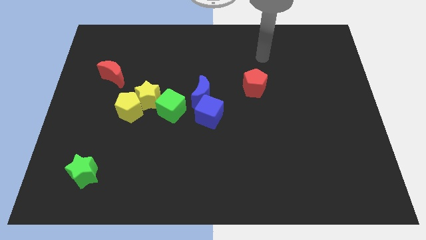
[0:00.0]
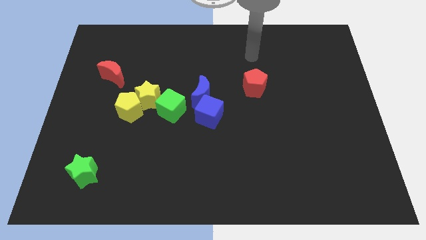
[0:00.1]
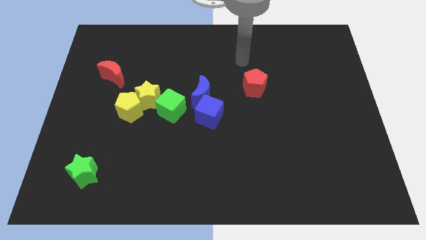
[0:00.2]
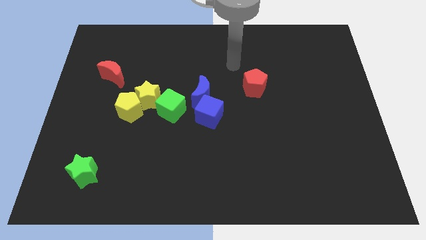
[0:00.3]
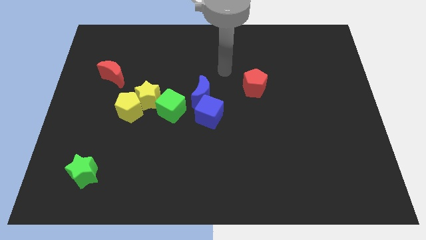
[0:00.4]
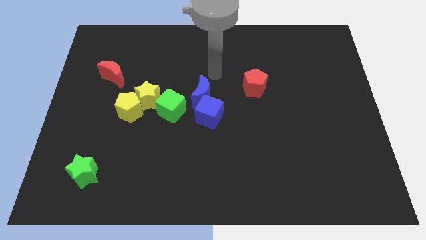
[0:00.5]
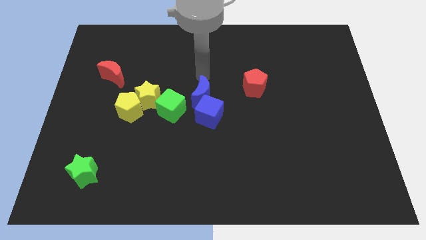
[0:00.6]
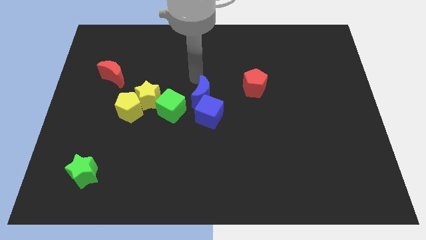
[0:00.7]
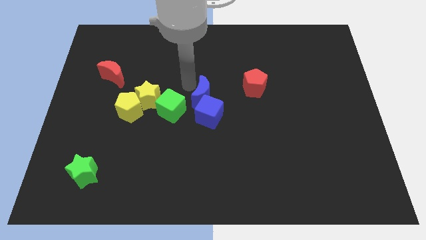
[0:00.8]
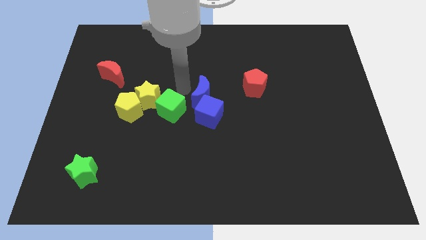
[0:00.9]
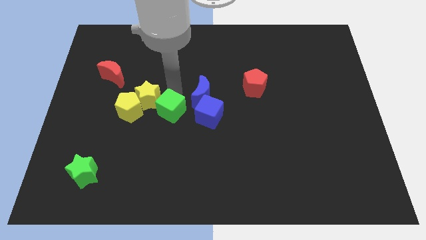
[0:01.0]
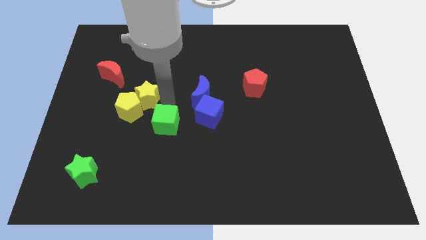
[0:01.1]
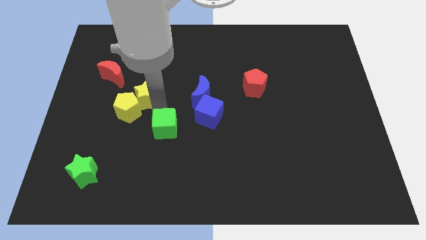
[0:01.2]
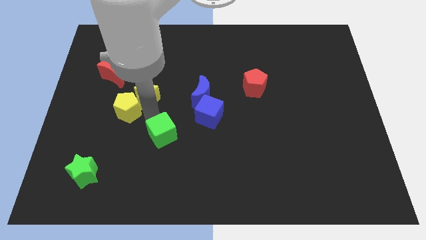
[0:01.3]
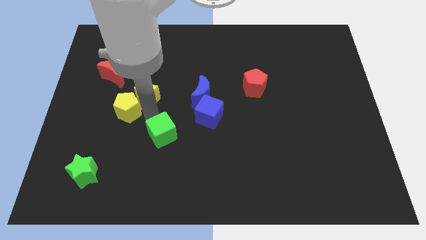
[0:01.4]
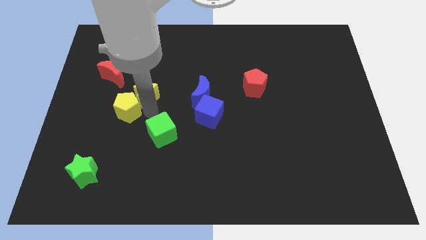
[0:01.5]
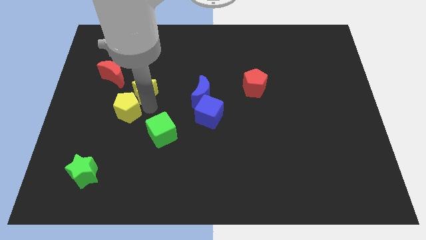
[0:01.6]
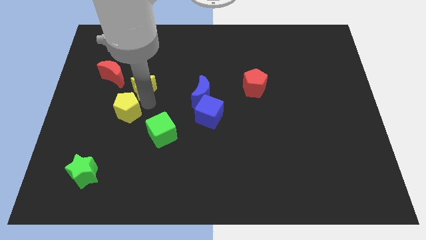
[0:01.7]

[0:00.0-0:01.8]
pull the yellow star apart from the yellow pentagon and green cube

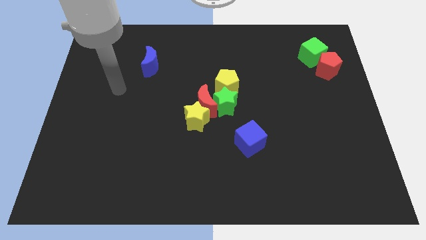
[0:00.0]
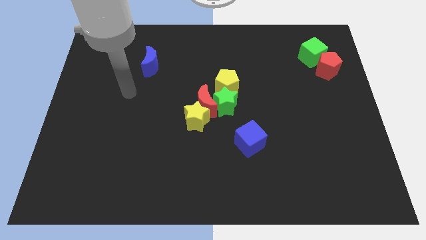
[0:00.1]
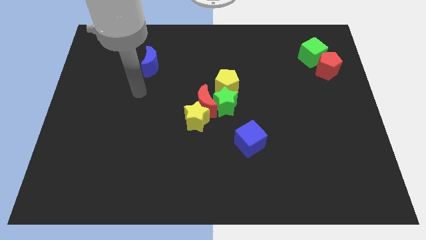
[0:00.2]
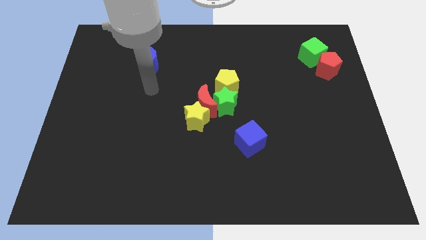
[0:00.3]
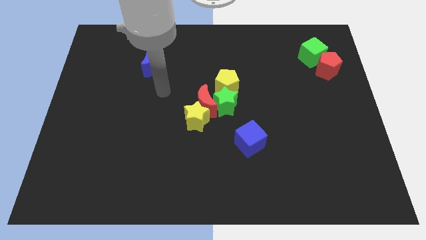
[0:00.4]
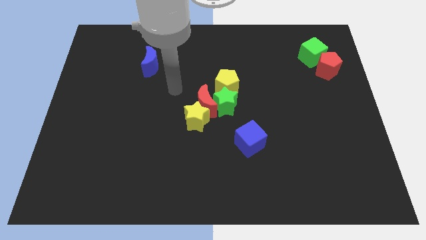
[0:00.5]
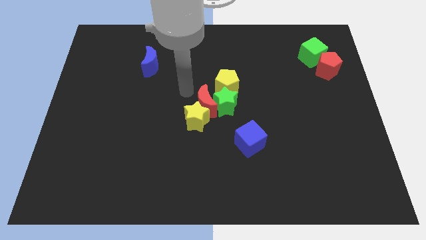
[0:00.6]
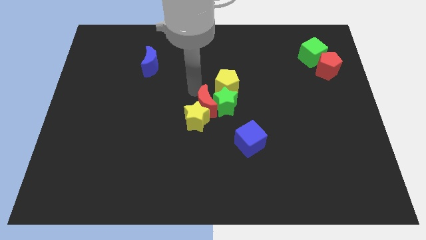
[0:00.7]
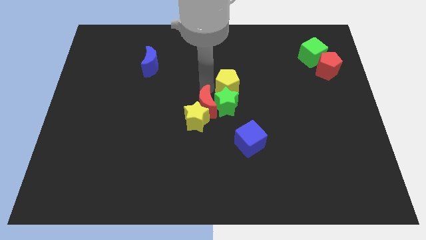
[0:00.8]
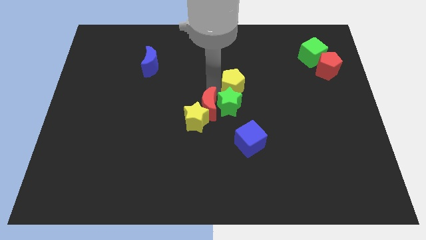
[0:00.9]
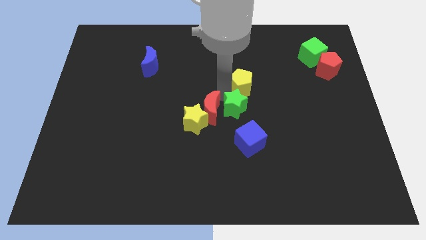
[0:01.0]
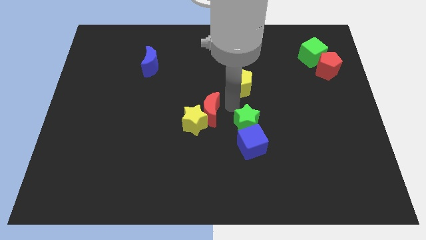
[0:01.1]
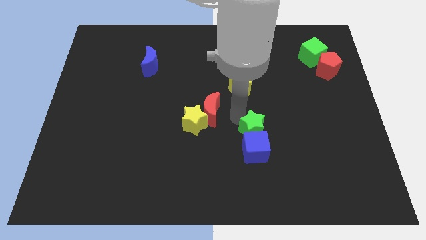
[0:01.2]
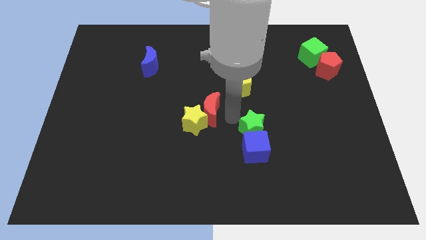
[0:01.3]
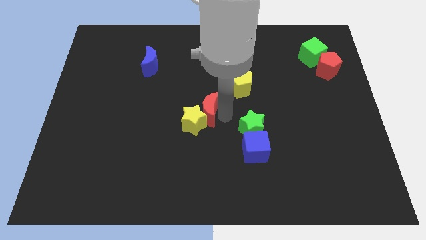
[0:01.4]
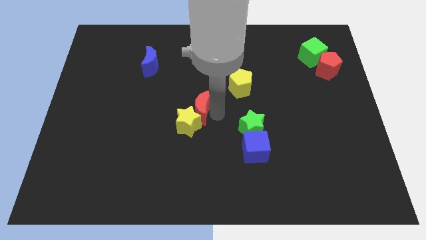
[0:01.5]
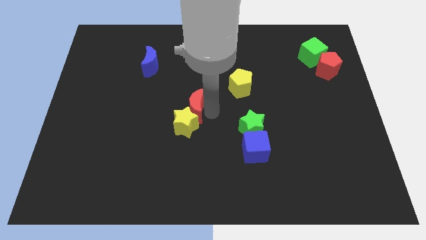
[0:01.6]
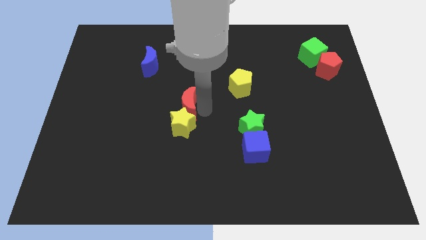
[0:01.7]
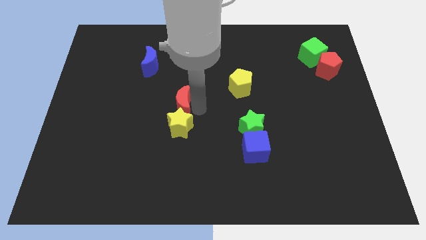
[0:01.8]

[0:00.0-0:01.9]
move the red moon away from the clump

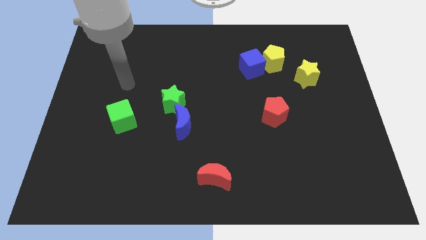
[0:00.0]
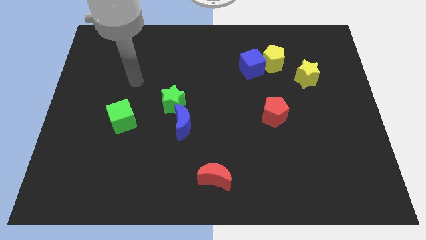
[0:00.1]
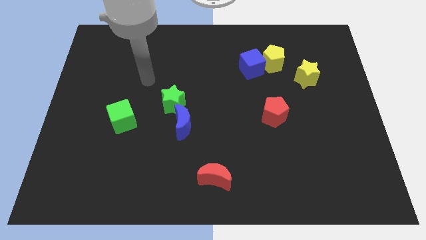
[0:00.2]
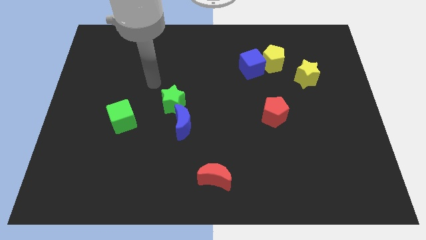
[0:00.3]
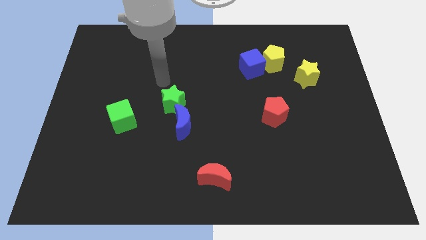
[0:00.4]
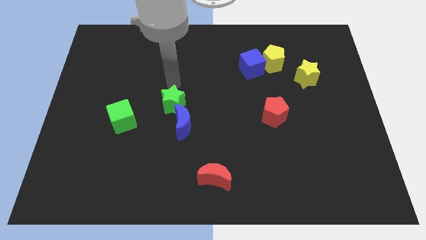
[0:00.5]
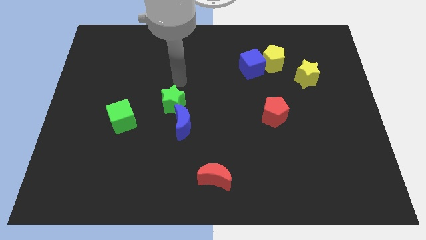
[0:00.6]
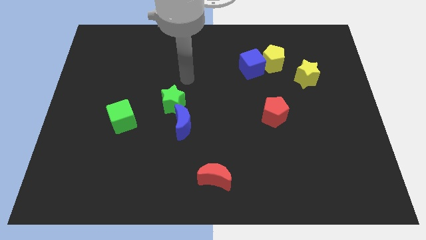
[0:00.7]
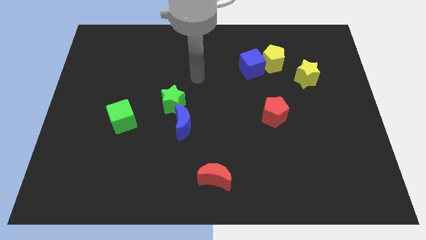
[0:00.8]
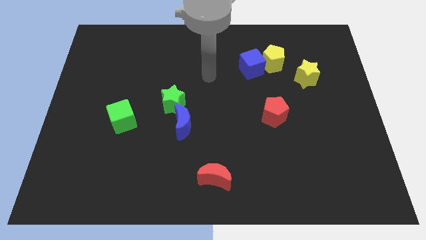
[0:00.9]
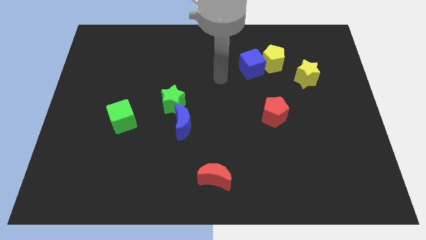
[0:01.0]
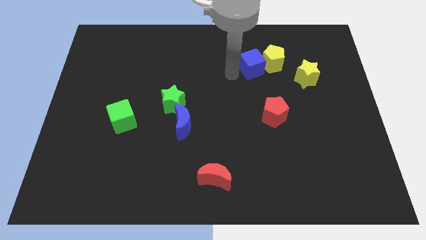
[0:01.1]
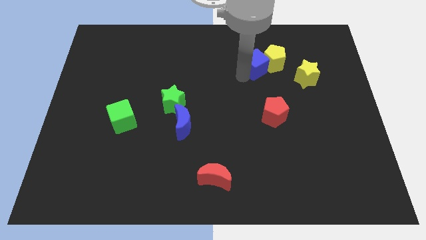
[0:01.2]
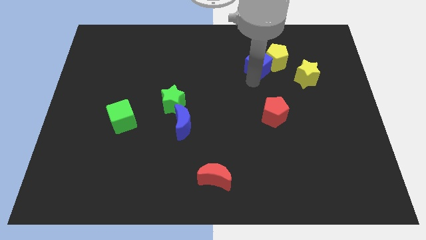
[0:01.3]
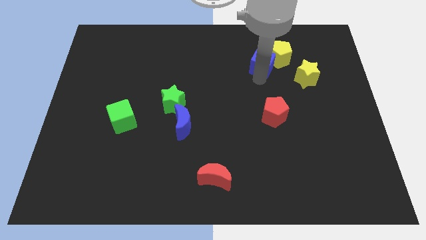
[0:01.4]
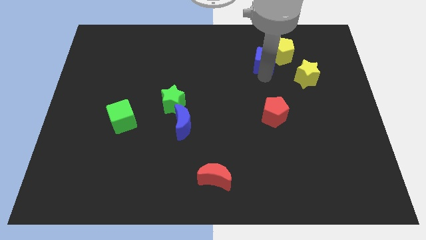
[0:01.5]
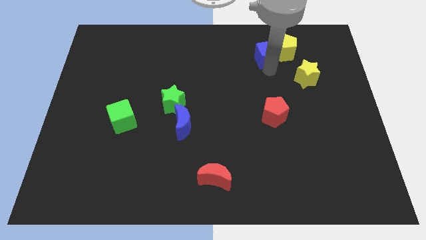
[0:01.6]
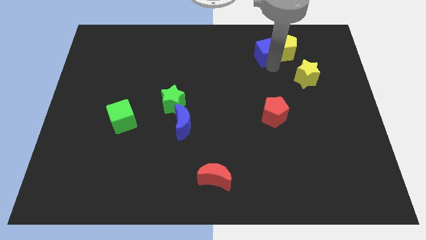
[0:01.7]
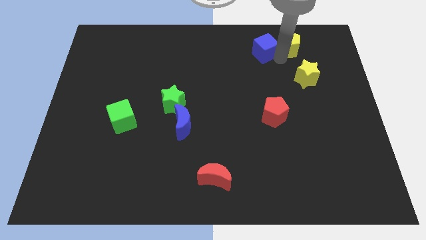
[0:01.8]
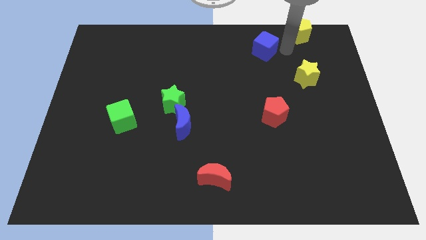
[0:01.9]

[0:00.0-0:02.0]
separate the blue cube from the yellow pentagon

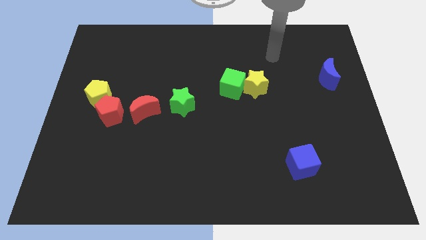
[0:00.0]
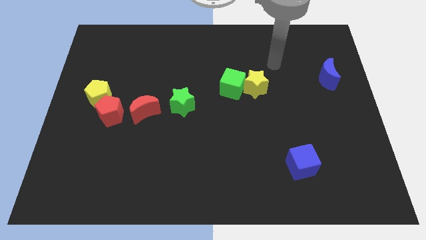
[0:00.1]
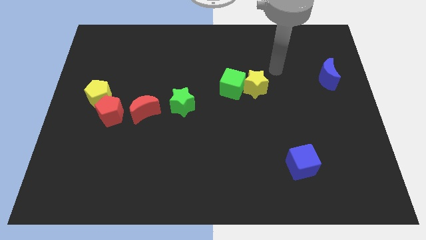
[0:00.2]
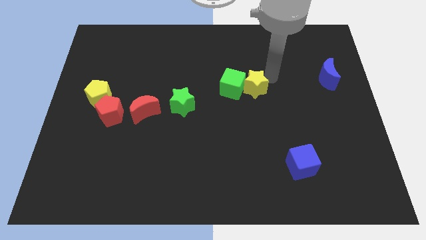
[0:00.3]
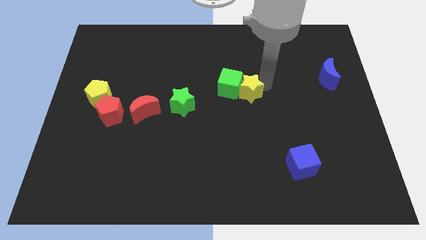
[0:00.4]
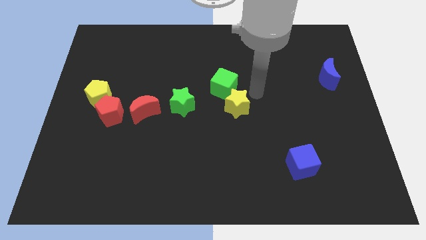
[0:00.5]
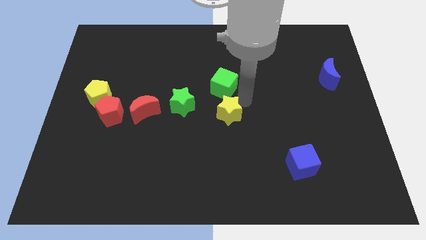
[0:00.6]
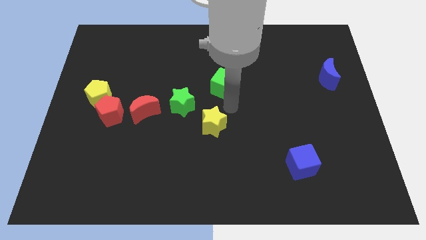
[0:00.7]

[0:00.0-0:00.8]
move the green cube away from the yellow star

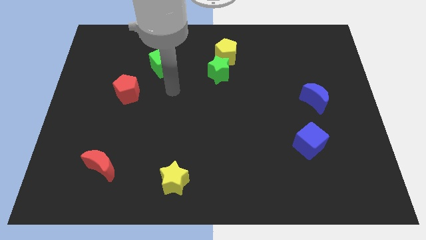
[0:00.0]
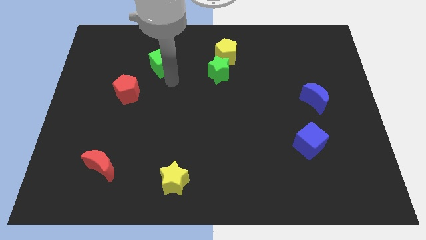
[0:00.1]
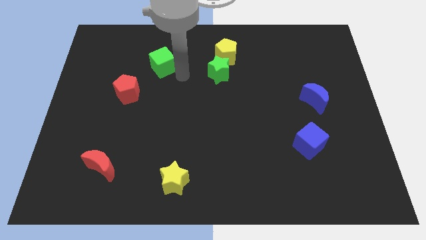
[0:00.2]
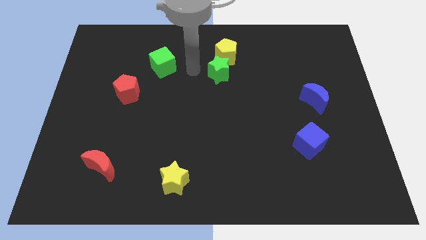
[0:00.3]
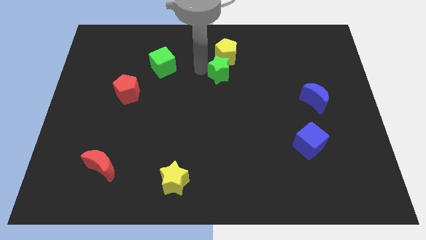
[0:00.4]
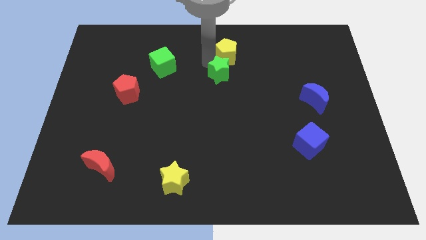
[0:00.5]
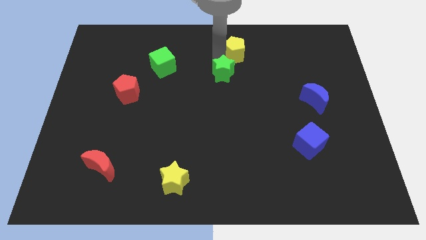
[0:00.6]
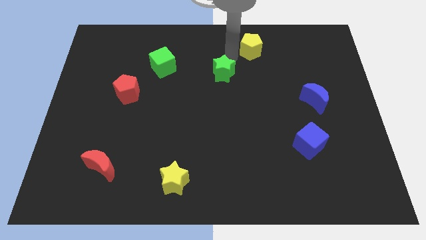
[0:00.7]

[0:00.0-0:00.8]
move the green star away from the yellow pentagon

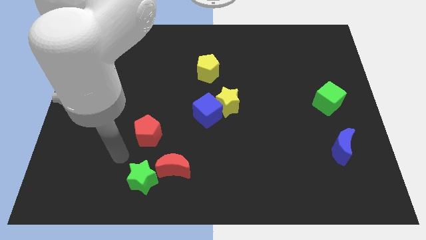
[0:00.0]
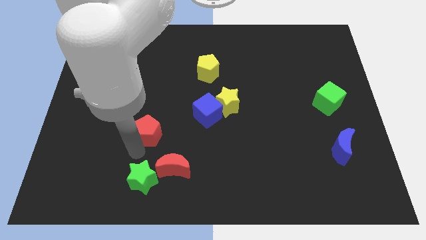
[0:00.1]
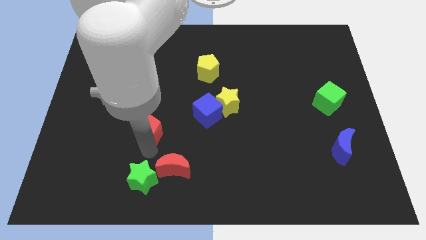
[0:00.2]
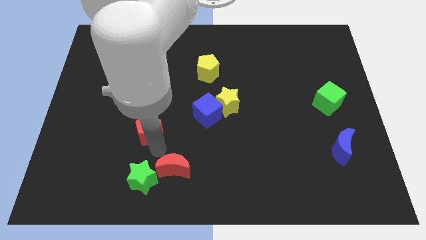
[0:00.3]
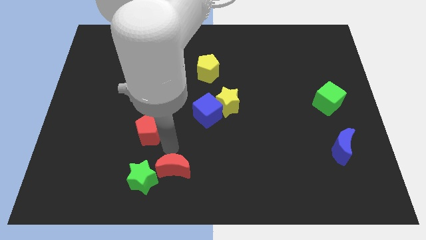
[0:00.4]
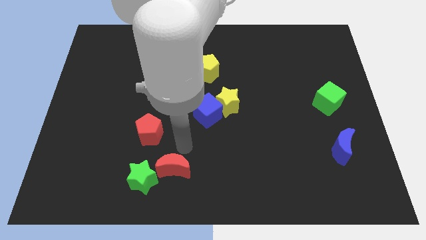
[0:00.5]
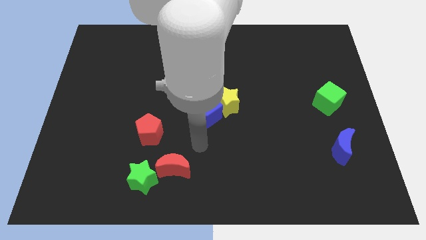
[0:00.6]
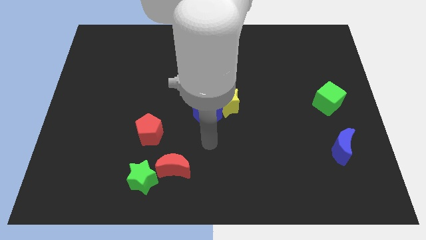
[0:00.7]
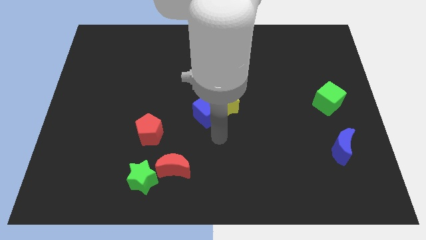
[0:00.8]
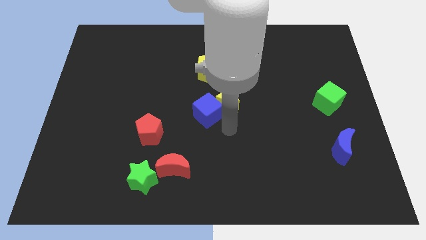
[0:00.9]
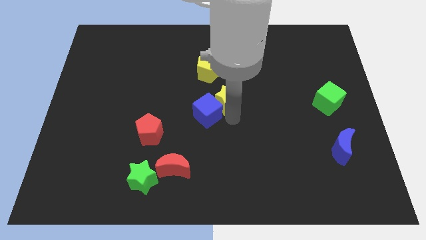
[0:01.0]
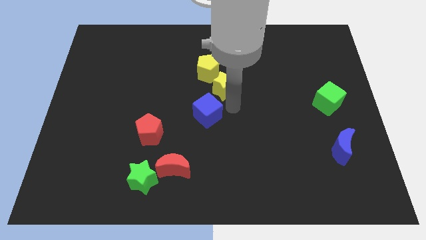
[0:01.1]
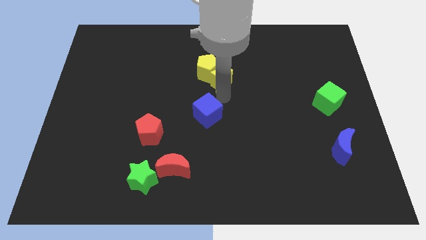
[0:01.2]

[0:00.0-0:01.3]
move the blue cube away from the yellow star

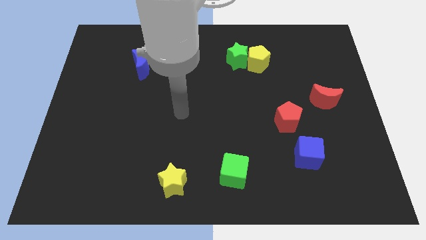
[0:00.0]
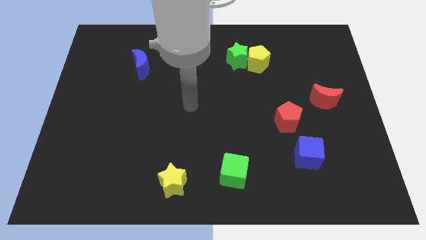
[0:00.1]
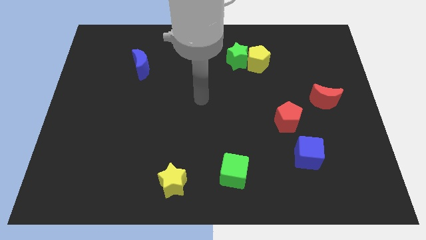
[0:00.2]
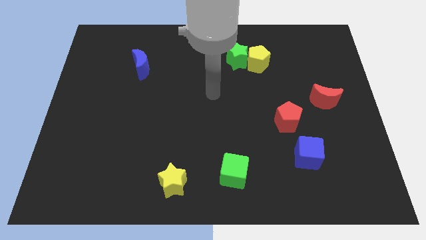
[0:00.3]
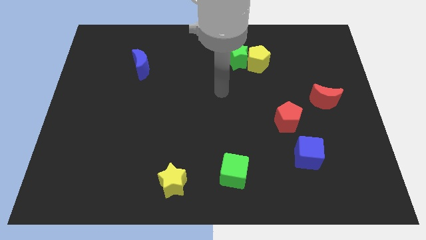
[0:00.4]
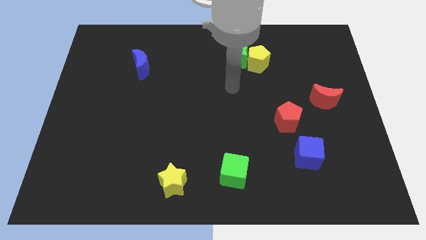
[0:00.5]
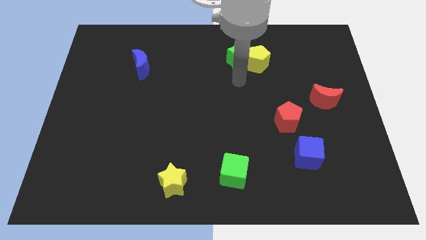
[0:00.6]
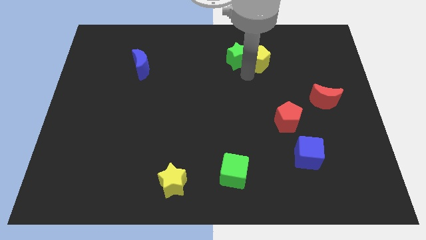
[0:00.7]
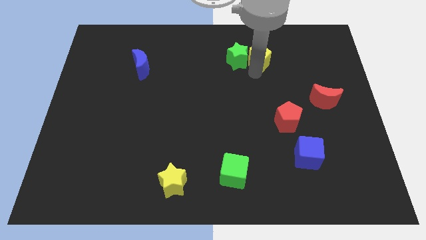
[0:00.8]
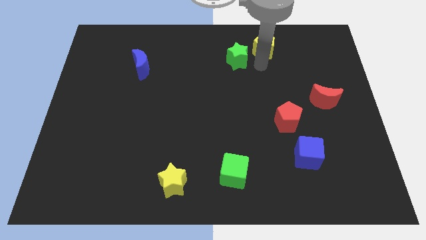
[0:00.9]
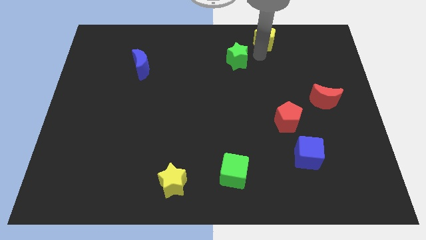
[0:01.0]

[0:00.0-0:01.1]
separate the green star from the yellow pentagon
